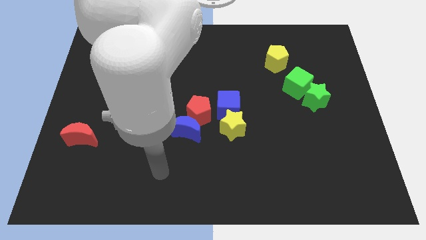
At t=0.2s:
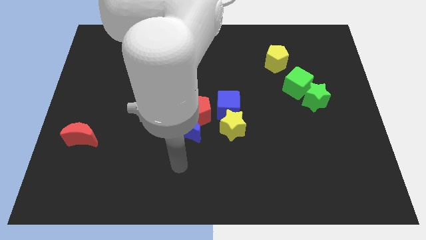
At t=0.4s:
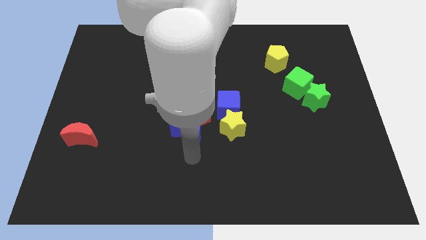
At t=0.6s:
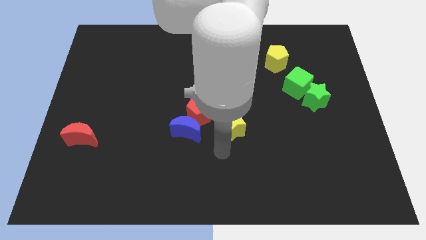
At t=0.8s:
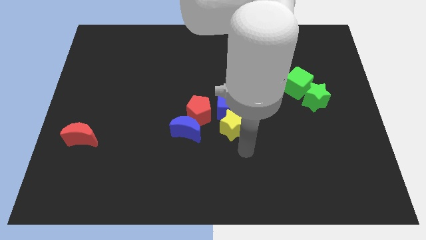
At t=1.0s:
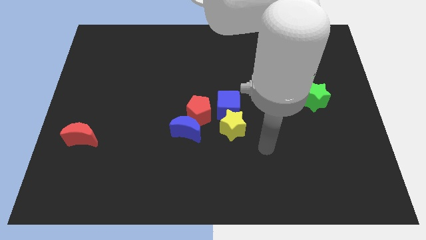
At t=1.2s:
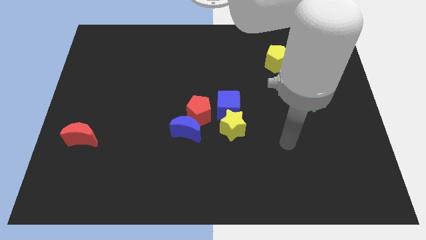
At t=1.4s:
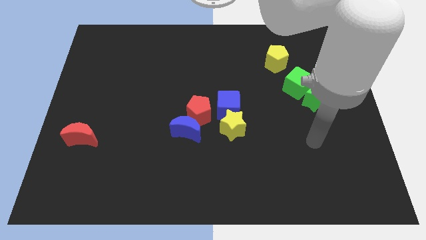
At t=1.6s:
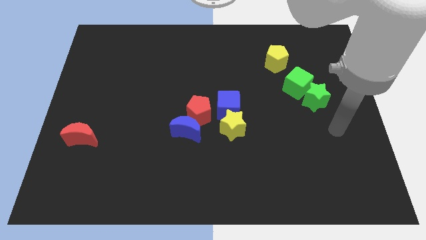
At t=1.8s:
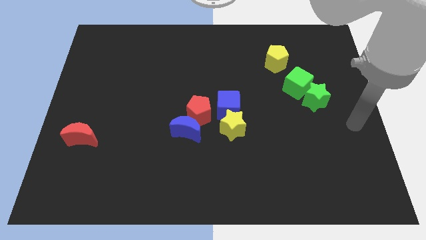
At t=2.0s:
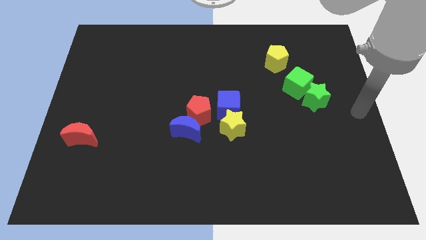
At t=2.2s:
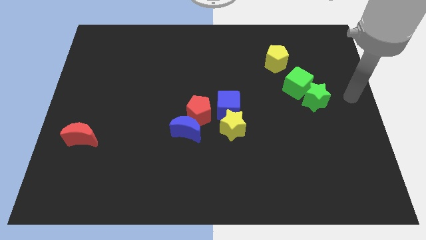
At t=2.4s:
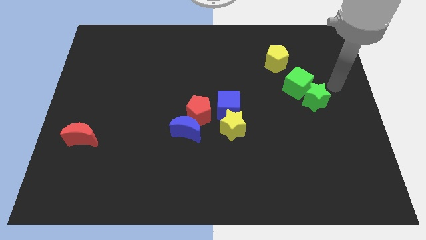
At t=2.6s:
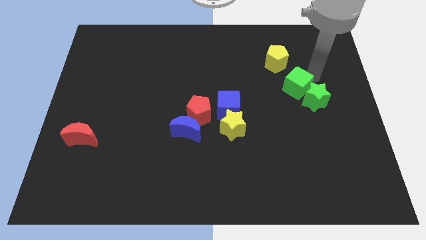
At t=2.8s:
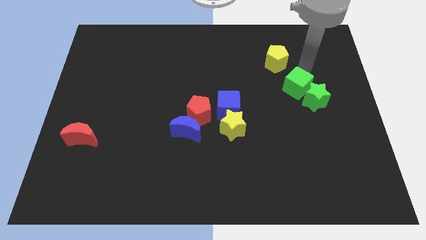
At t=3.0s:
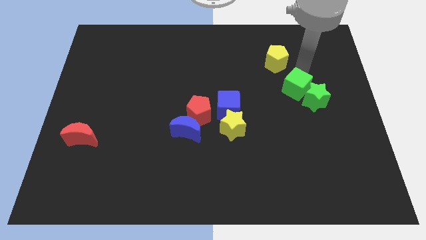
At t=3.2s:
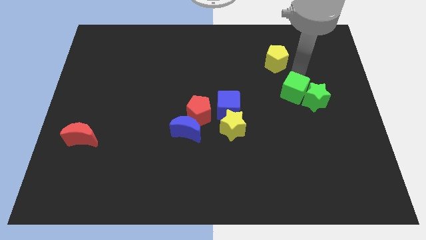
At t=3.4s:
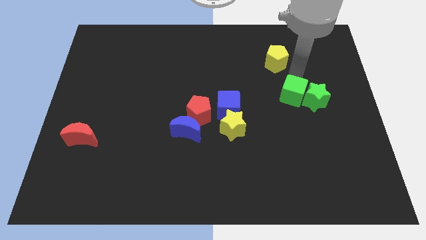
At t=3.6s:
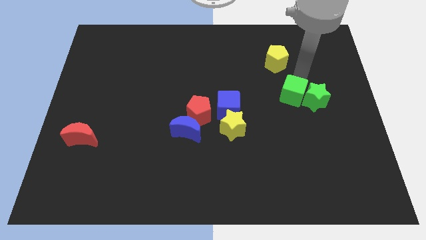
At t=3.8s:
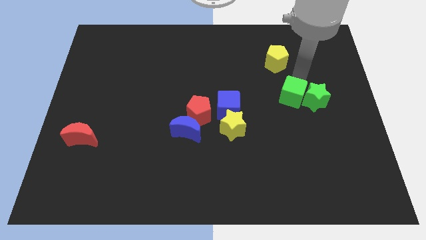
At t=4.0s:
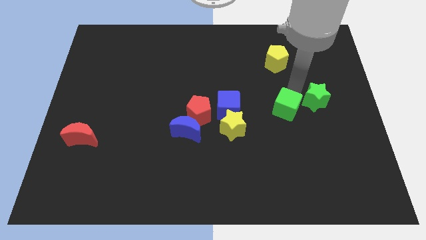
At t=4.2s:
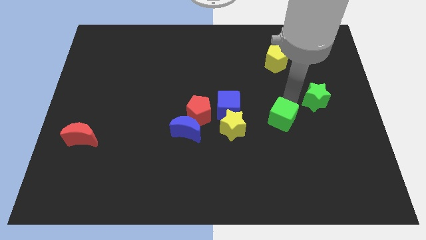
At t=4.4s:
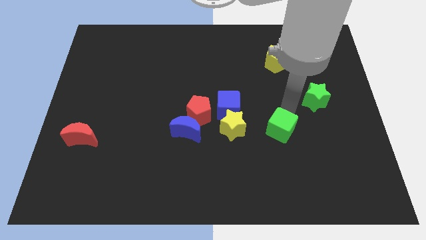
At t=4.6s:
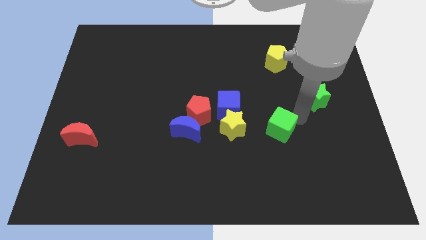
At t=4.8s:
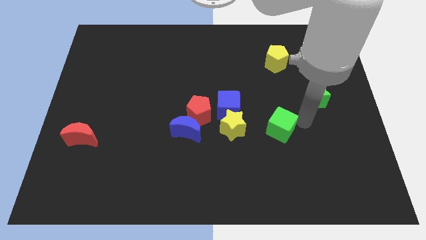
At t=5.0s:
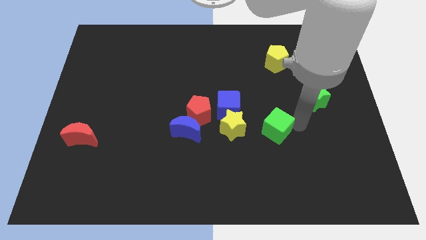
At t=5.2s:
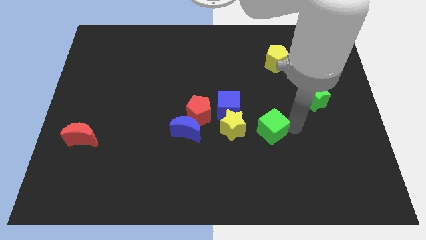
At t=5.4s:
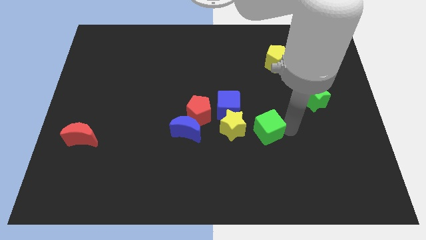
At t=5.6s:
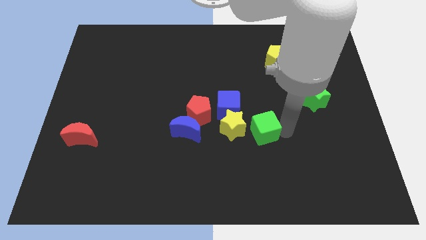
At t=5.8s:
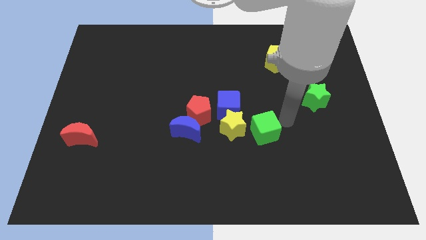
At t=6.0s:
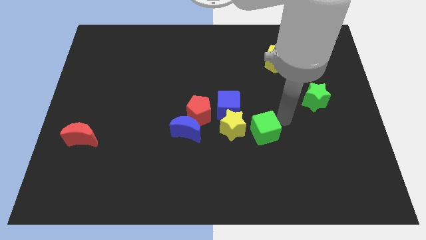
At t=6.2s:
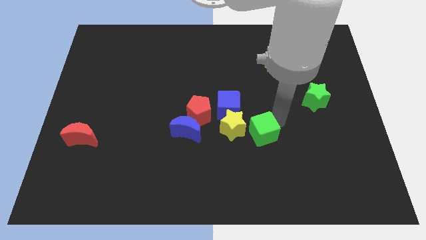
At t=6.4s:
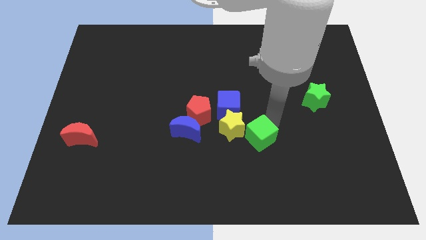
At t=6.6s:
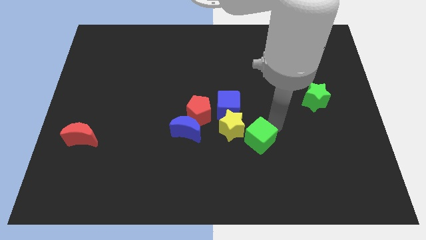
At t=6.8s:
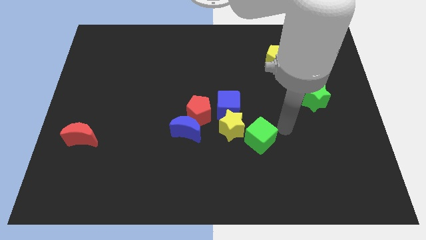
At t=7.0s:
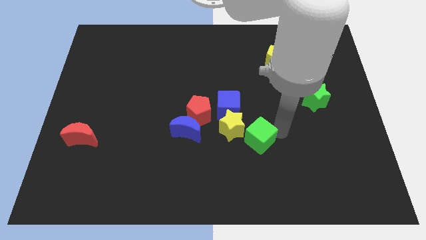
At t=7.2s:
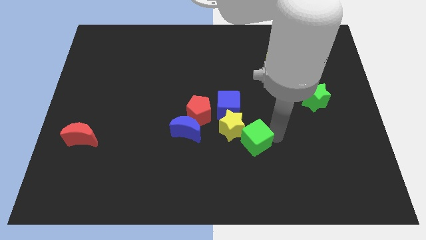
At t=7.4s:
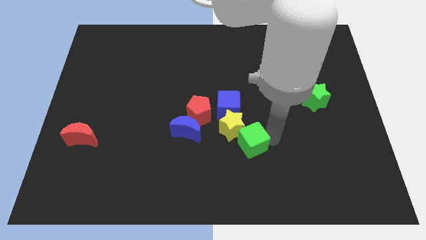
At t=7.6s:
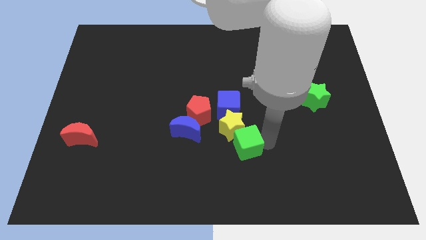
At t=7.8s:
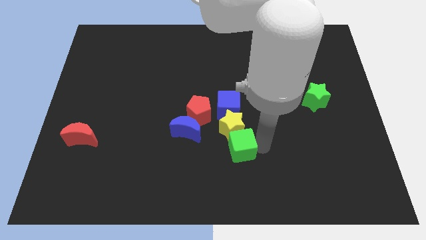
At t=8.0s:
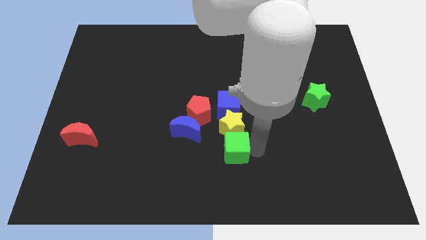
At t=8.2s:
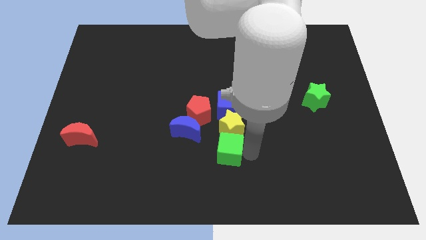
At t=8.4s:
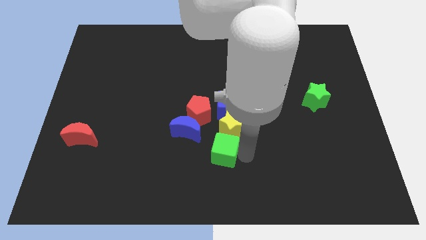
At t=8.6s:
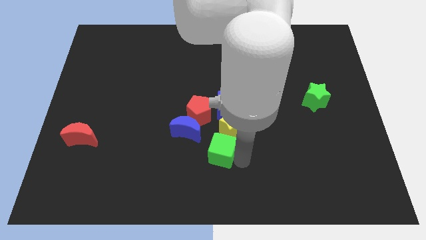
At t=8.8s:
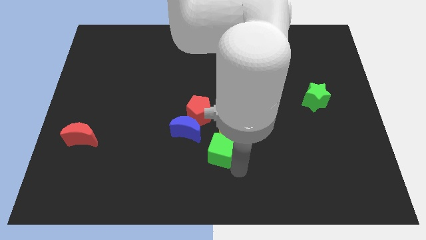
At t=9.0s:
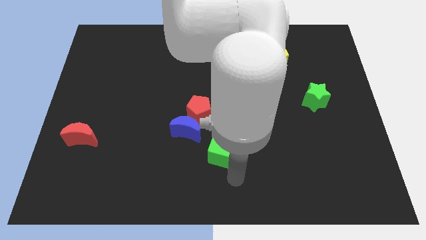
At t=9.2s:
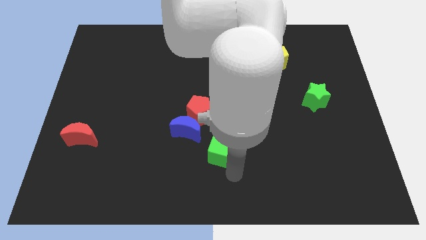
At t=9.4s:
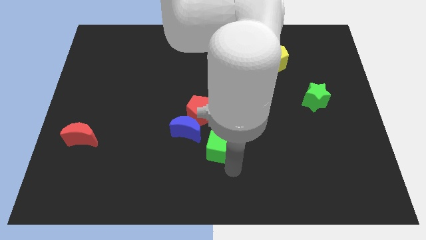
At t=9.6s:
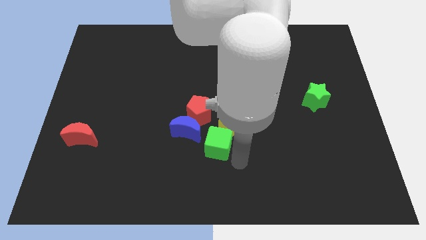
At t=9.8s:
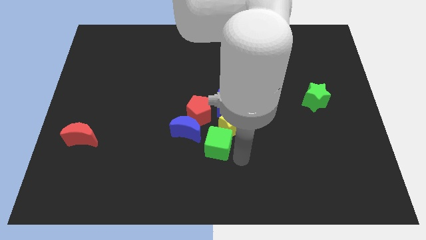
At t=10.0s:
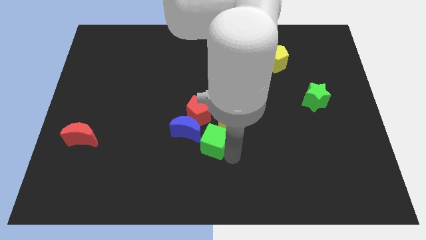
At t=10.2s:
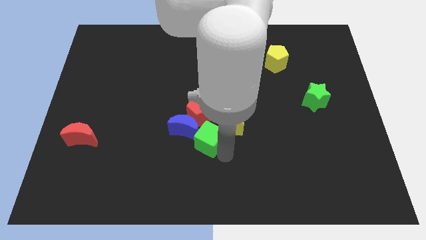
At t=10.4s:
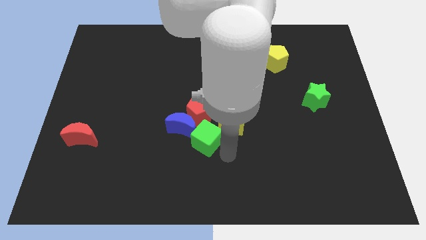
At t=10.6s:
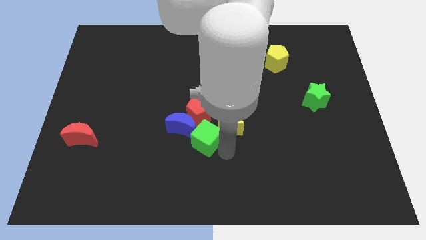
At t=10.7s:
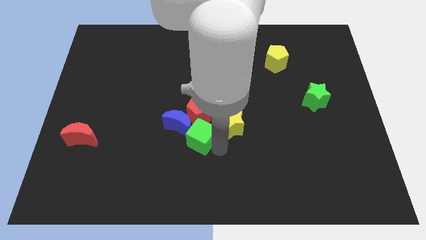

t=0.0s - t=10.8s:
move the green cube next to the blue moon
